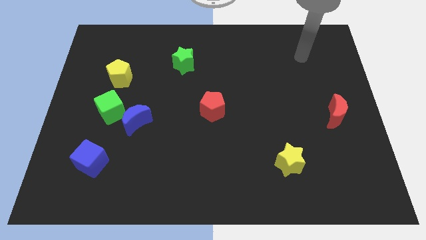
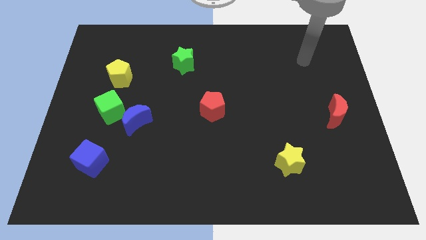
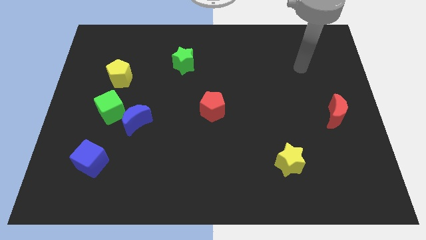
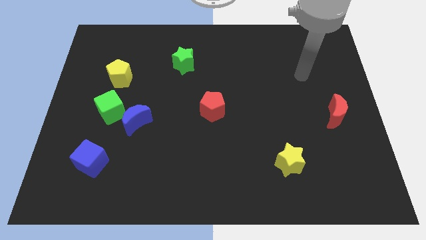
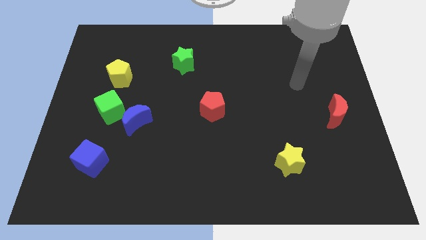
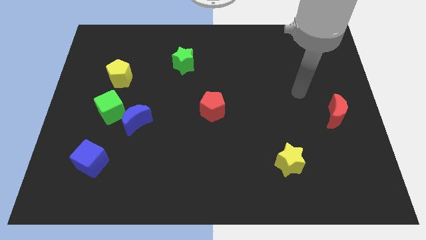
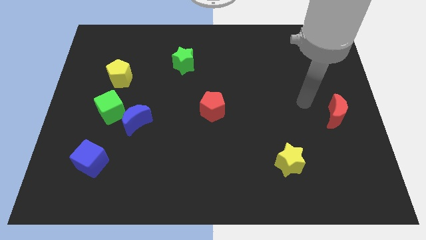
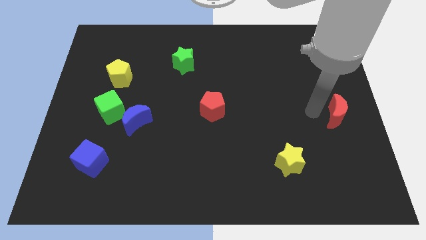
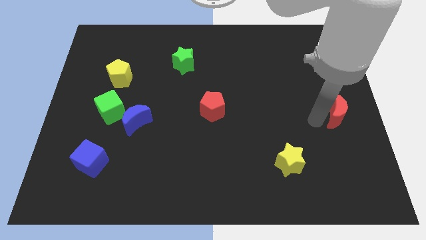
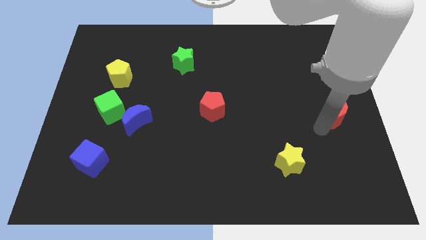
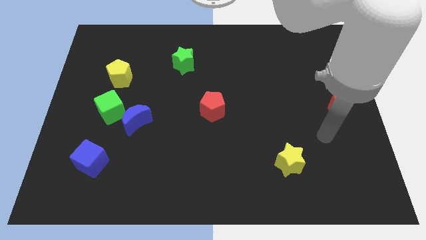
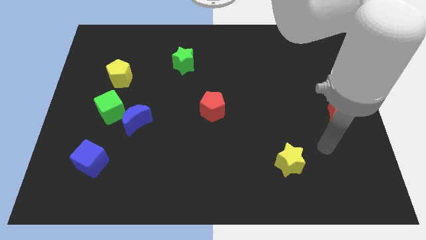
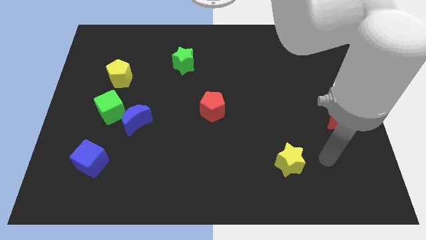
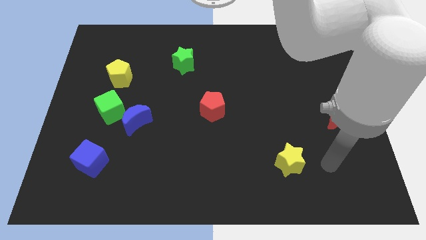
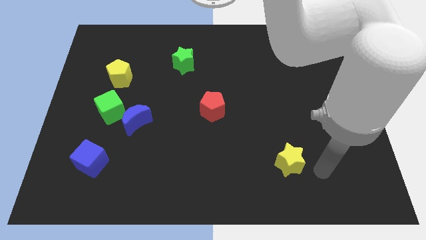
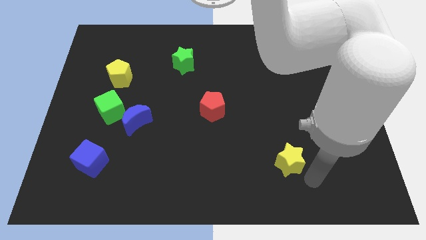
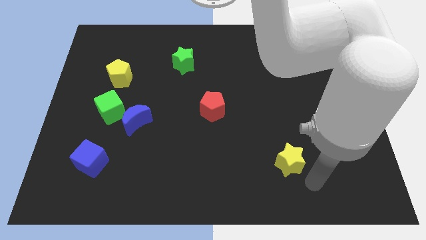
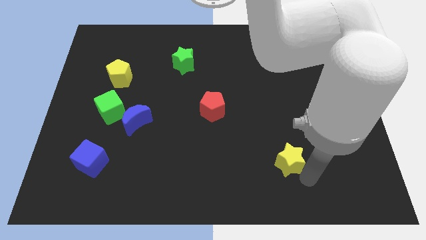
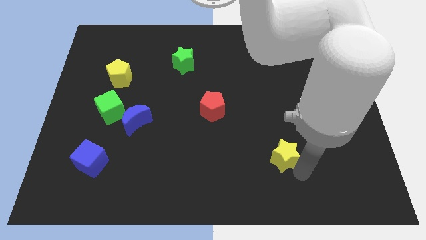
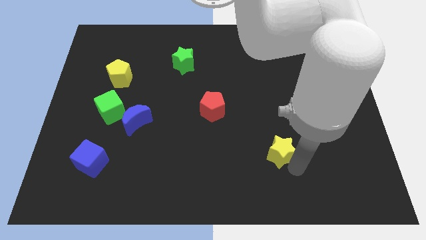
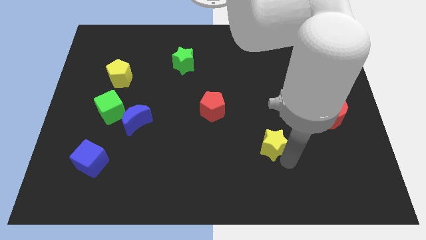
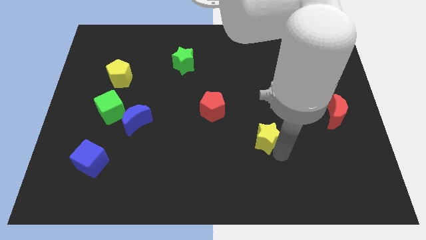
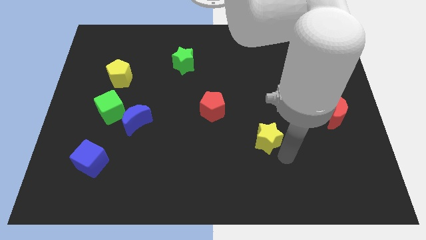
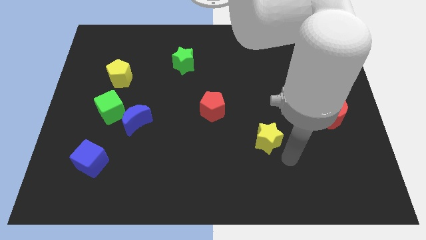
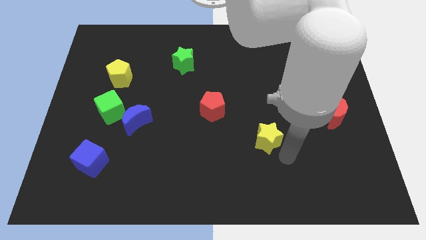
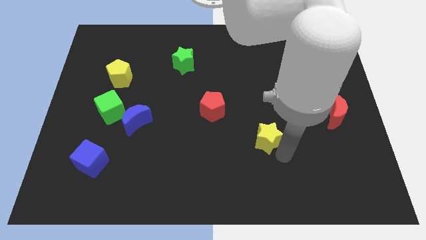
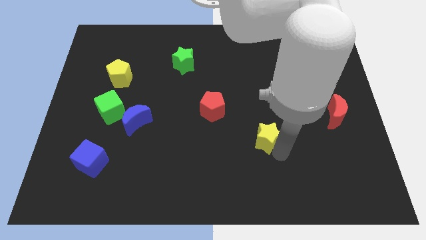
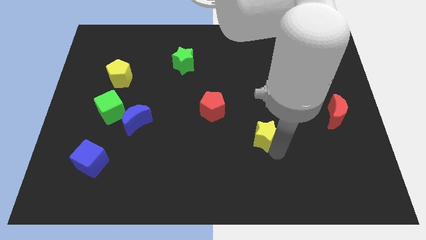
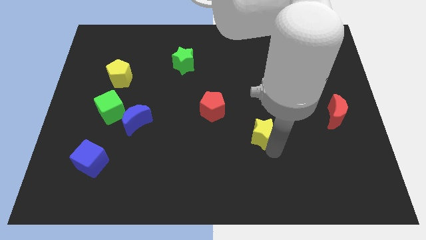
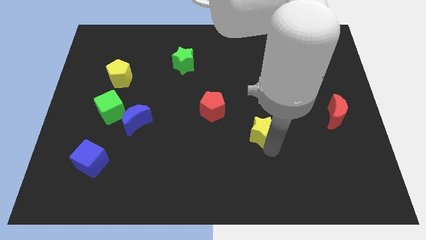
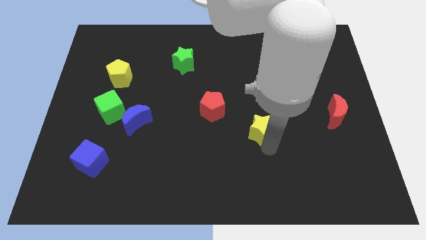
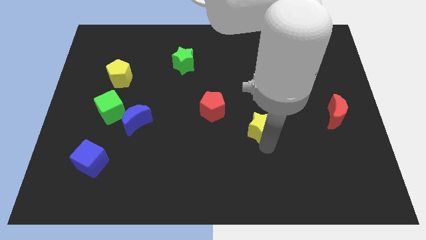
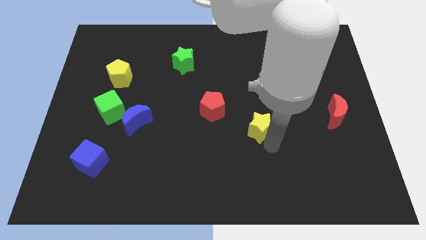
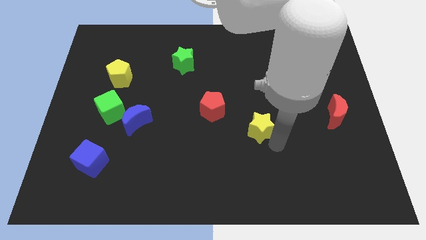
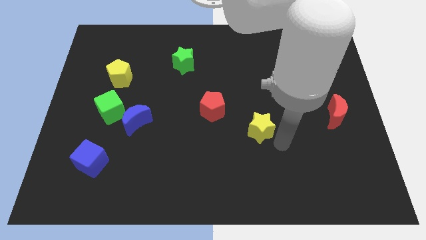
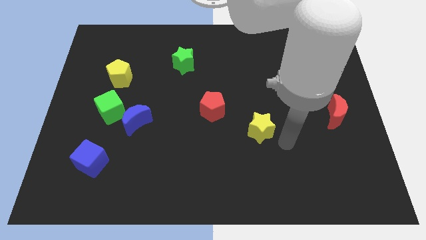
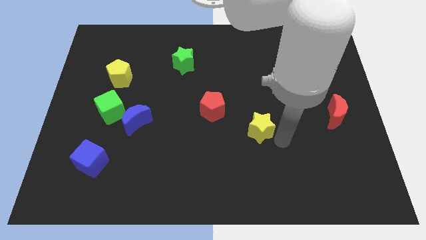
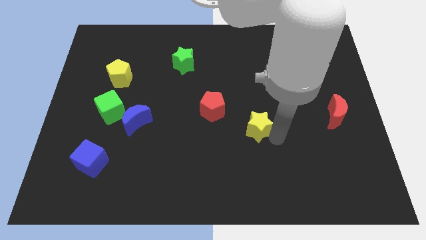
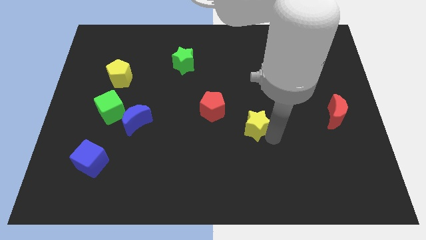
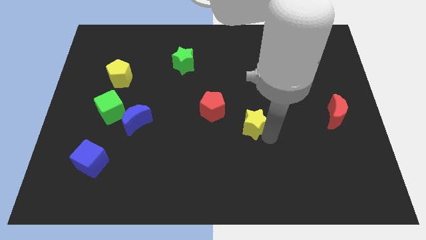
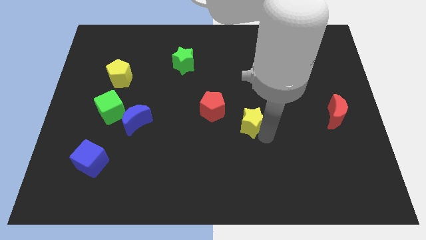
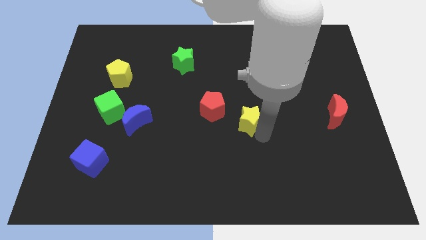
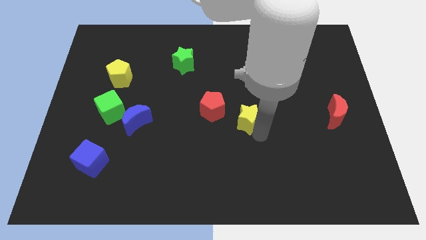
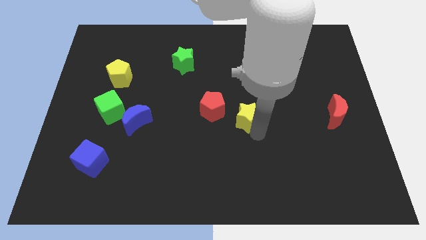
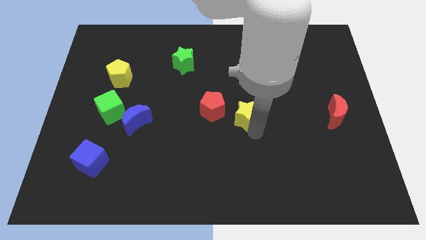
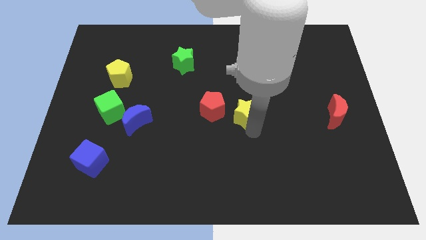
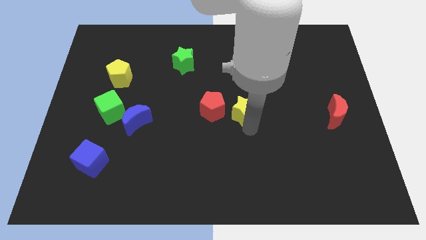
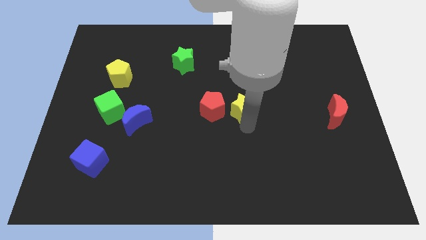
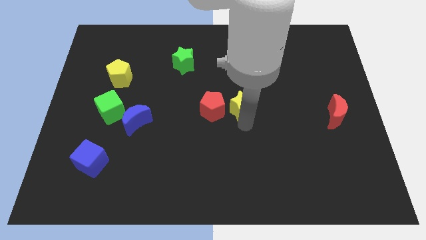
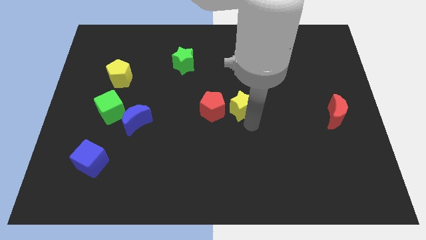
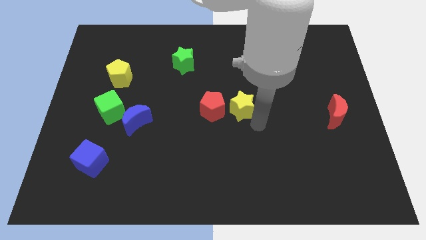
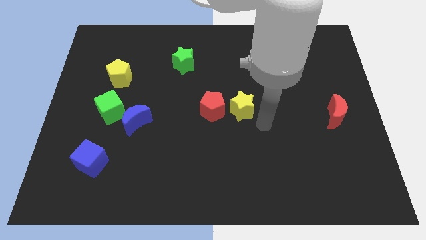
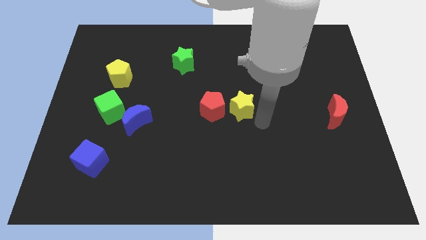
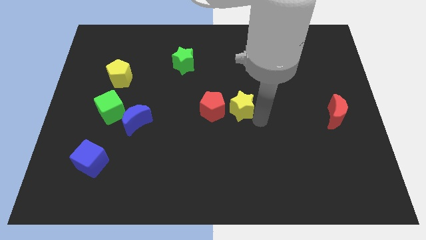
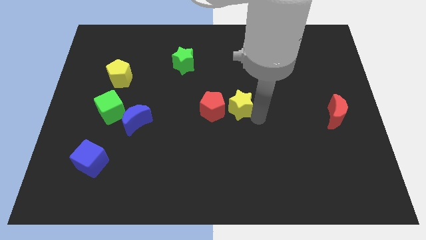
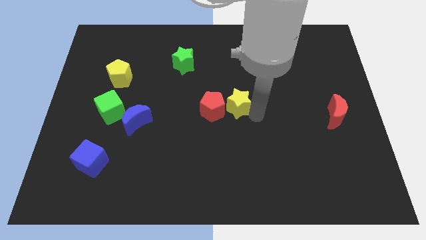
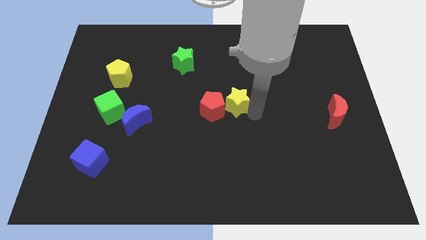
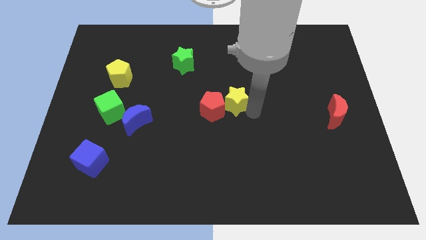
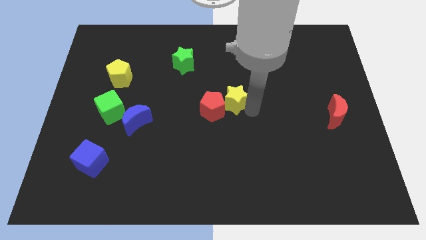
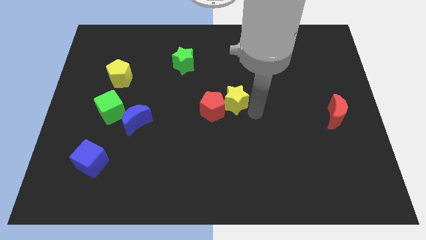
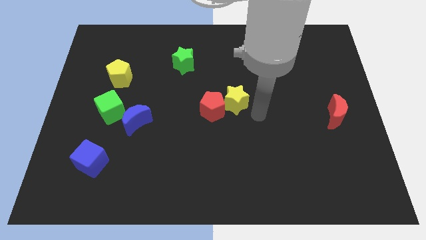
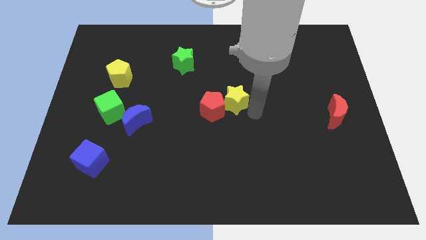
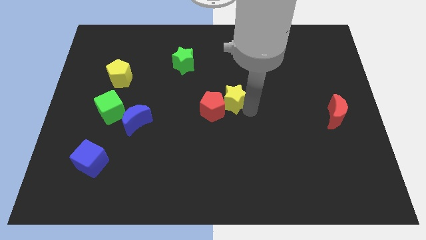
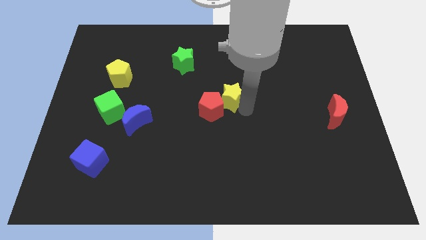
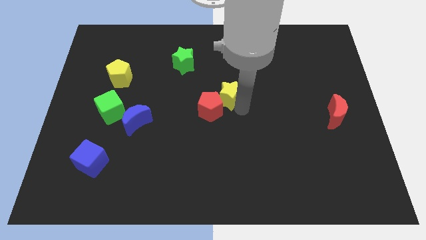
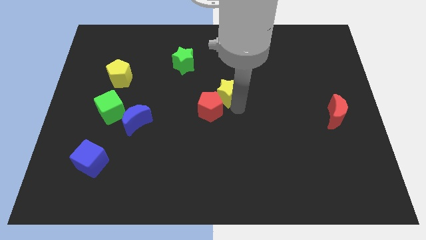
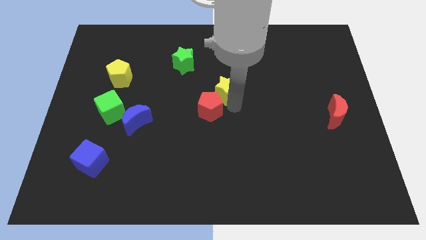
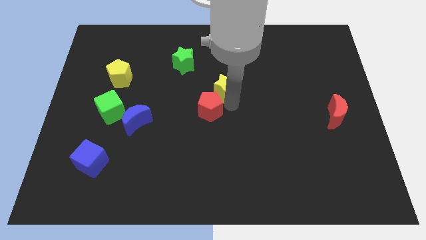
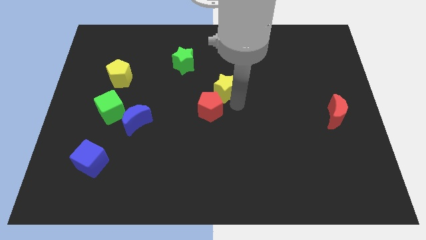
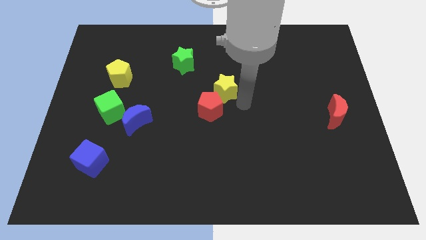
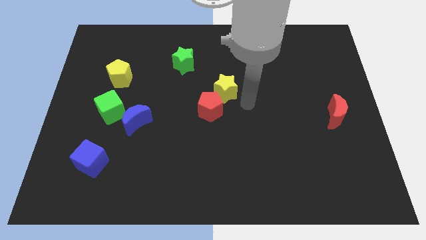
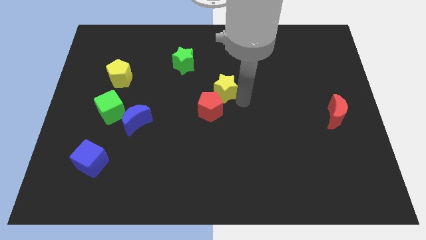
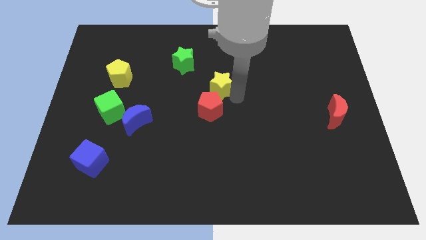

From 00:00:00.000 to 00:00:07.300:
put the yellow star to the bottom right of the green star
